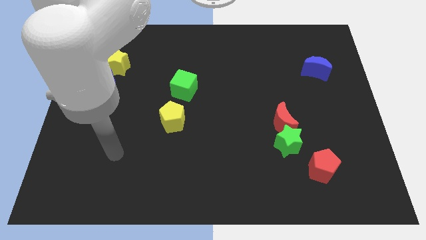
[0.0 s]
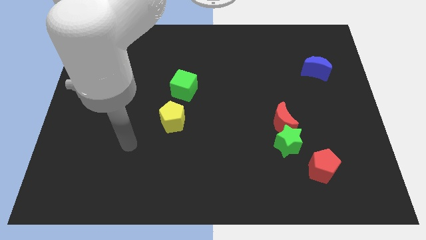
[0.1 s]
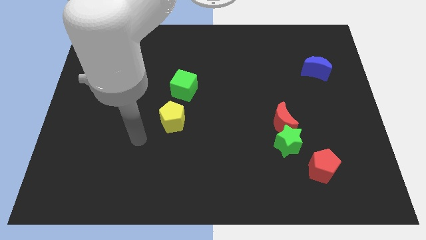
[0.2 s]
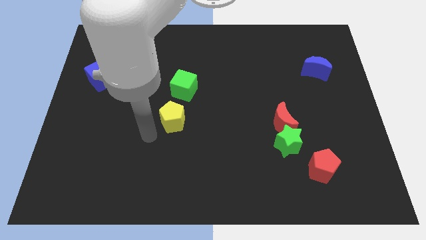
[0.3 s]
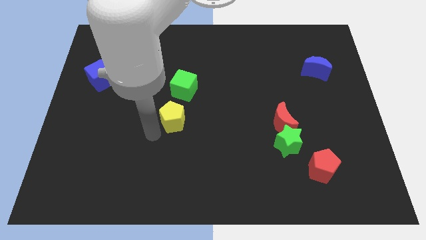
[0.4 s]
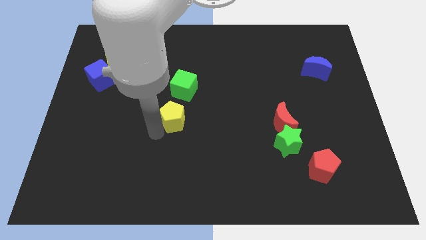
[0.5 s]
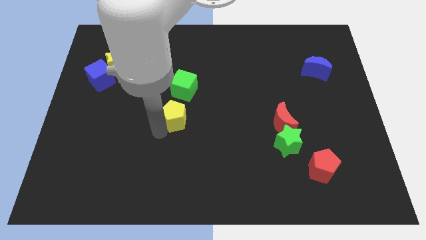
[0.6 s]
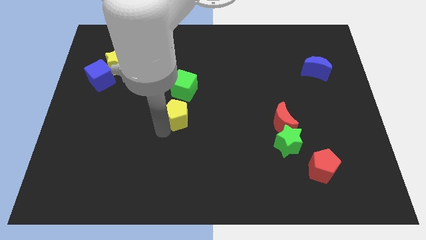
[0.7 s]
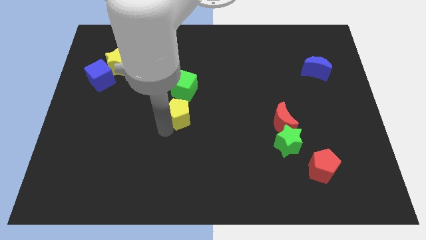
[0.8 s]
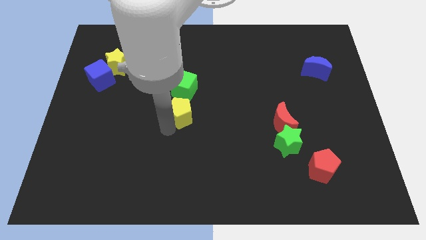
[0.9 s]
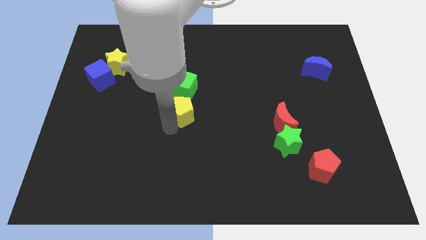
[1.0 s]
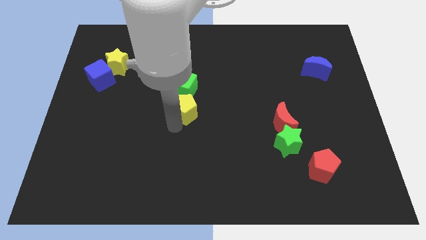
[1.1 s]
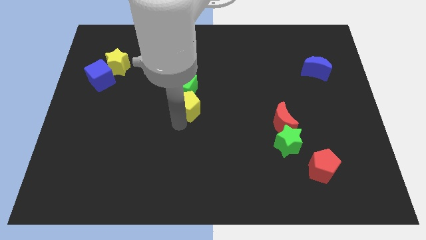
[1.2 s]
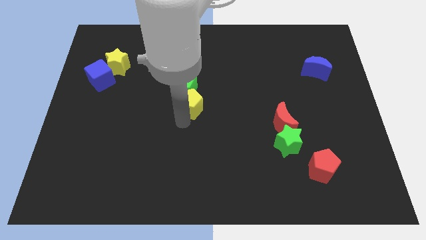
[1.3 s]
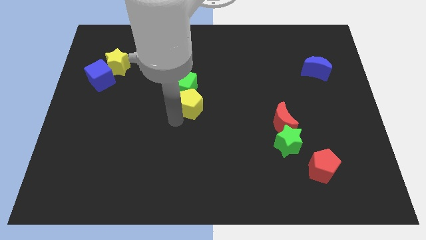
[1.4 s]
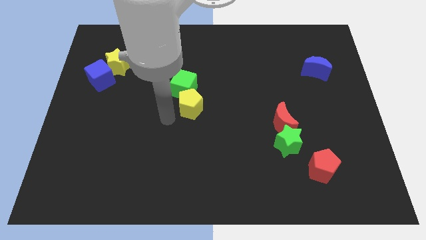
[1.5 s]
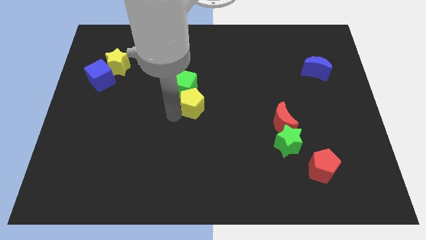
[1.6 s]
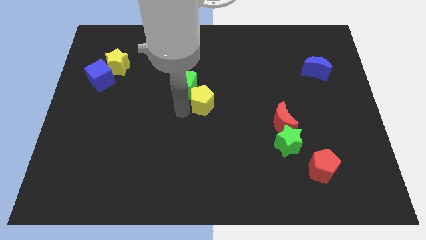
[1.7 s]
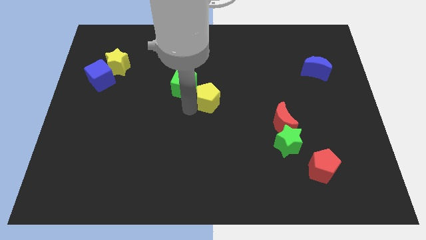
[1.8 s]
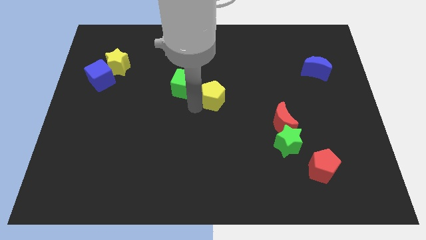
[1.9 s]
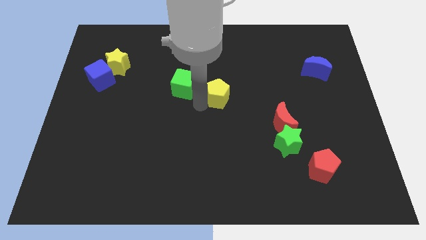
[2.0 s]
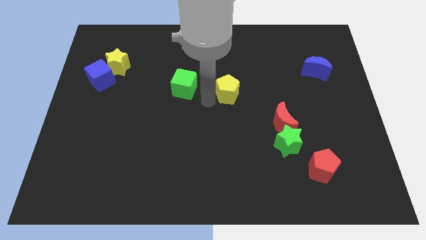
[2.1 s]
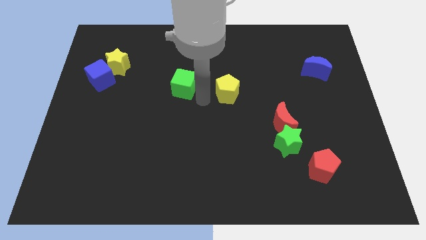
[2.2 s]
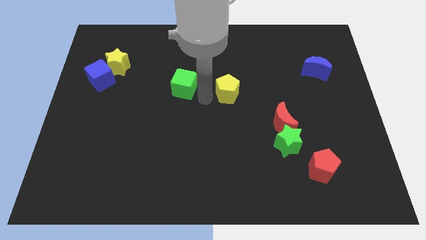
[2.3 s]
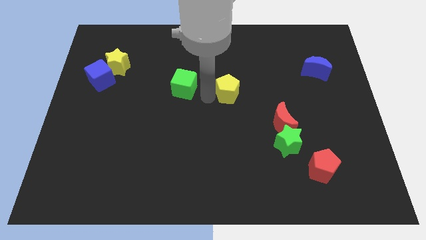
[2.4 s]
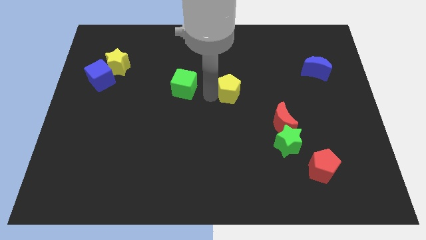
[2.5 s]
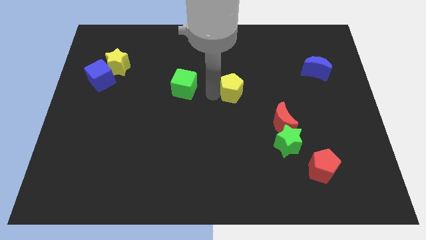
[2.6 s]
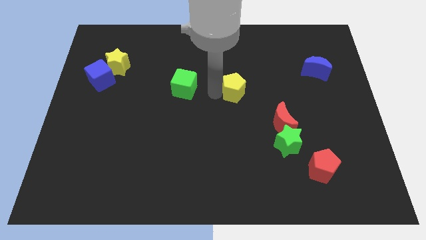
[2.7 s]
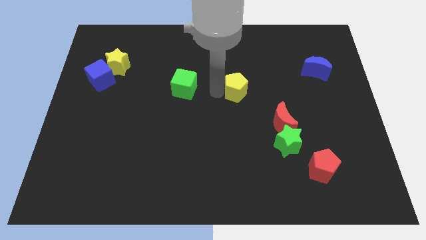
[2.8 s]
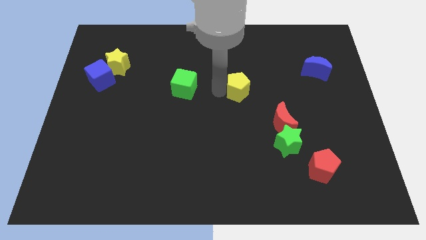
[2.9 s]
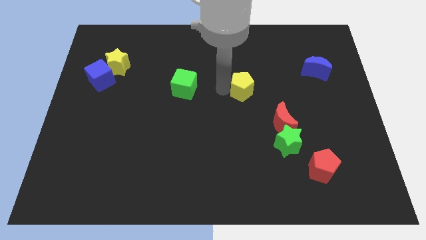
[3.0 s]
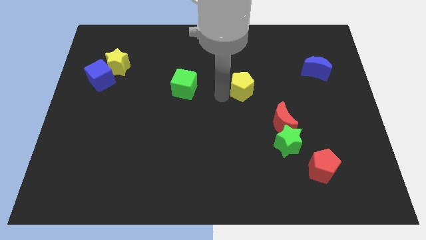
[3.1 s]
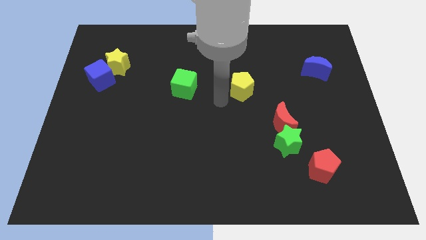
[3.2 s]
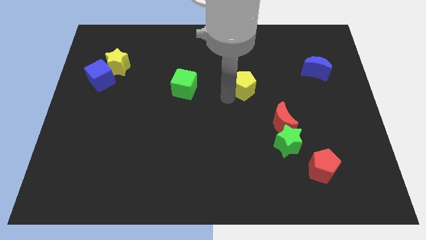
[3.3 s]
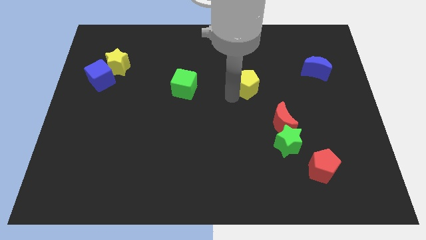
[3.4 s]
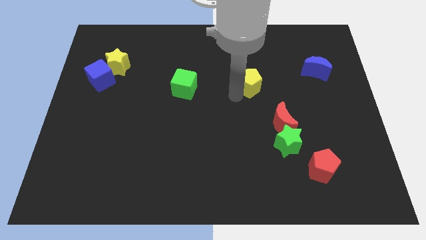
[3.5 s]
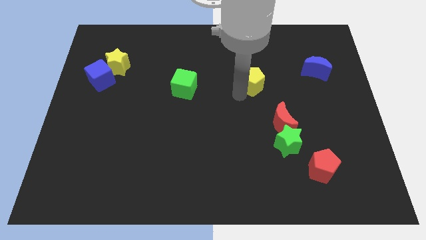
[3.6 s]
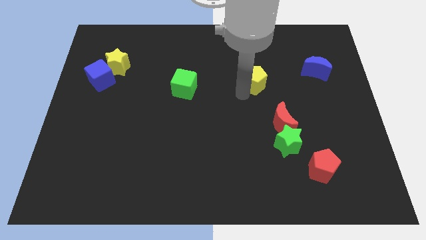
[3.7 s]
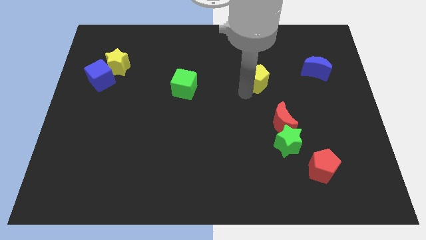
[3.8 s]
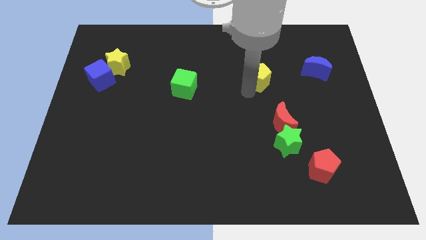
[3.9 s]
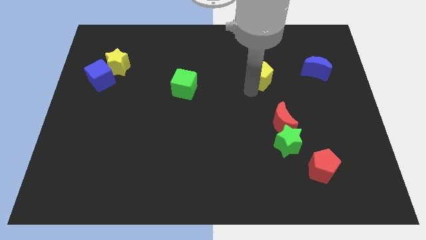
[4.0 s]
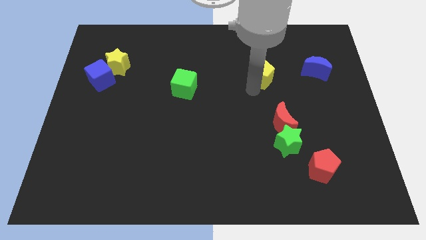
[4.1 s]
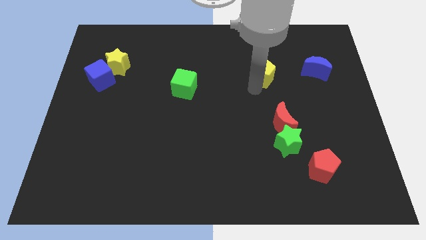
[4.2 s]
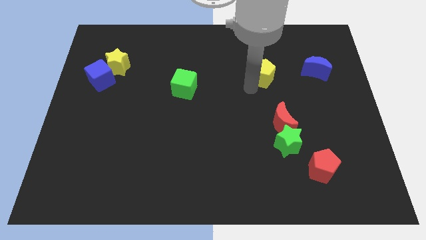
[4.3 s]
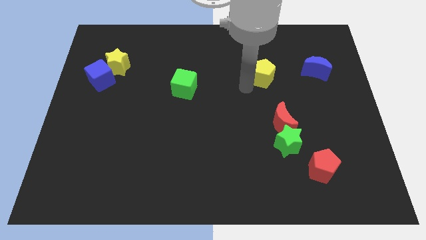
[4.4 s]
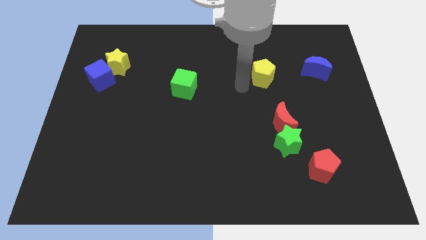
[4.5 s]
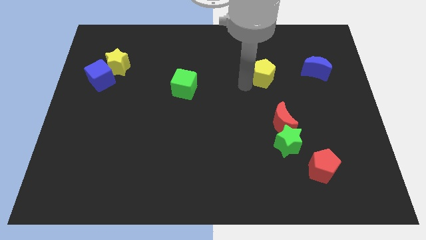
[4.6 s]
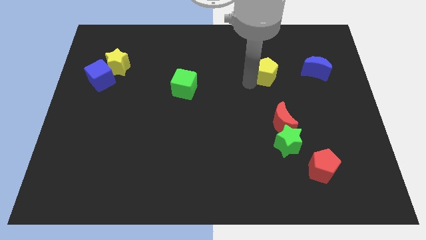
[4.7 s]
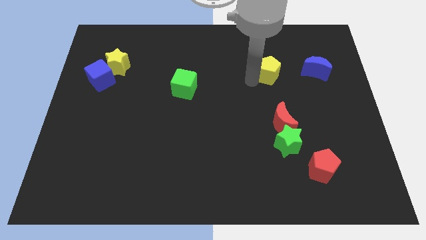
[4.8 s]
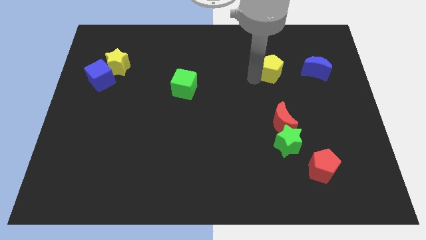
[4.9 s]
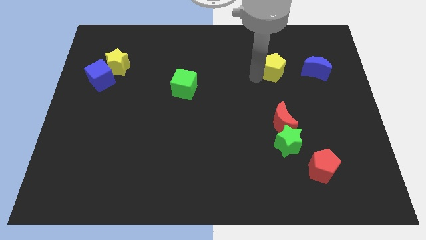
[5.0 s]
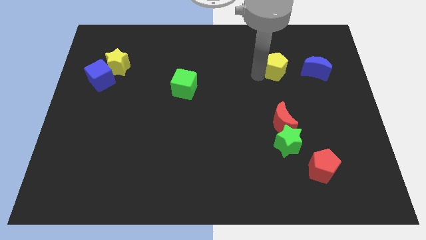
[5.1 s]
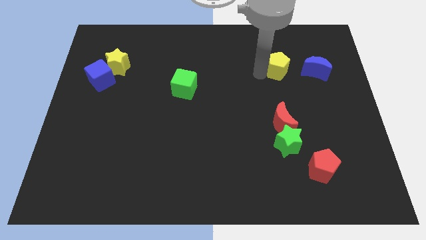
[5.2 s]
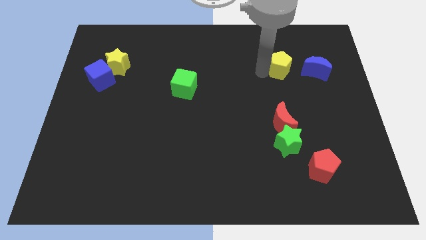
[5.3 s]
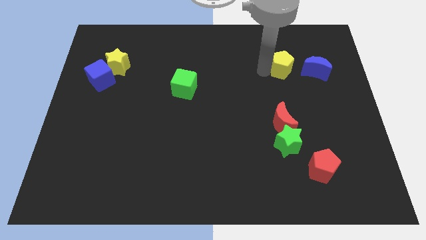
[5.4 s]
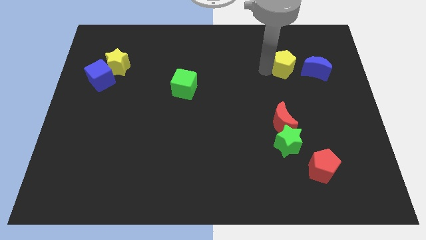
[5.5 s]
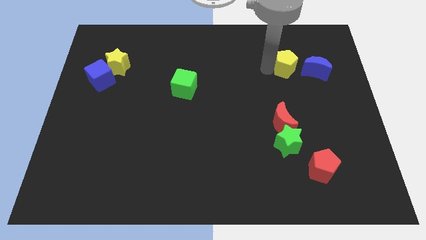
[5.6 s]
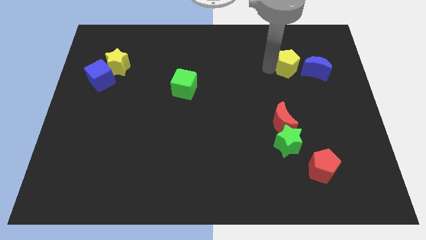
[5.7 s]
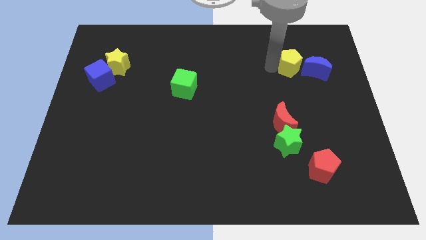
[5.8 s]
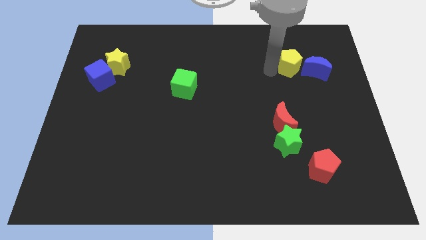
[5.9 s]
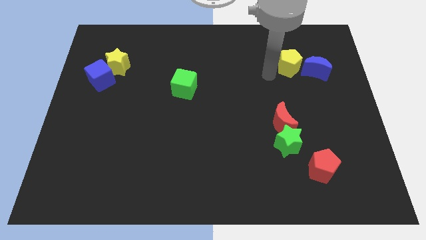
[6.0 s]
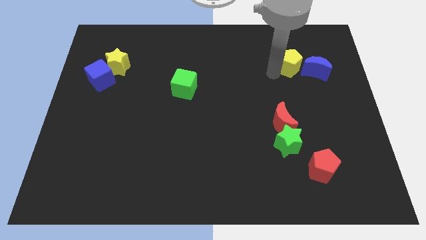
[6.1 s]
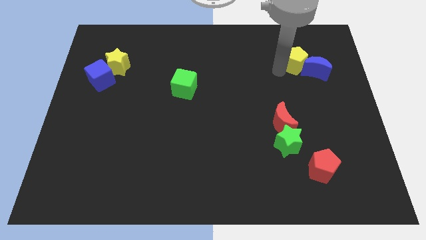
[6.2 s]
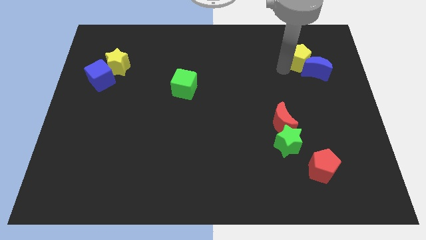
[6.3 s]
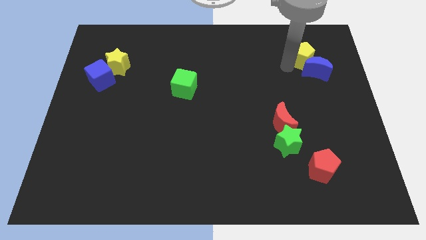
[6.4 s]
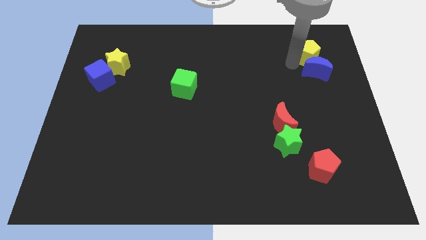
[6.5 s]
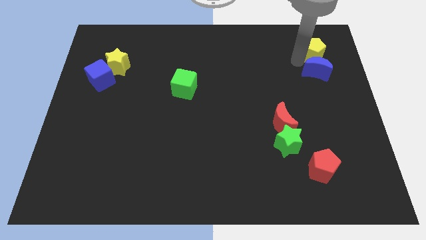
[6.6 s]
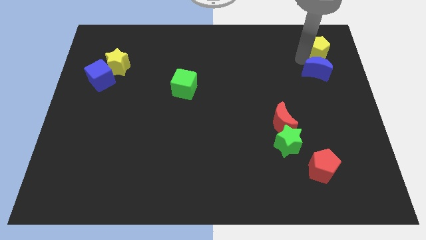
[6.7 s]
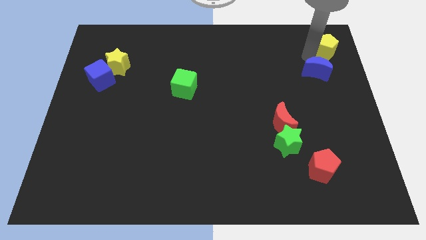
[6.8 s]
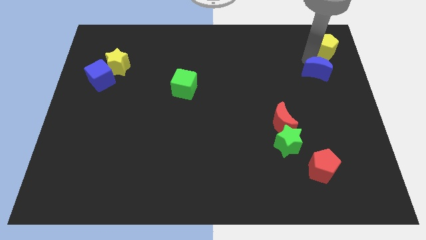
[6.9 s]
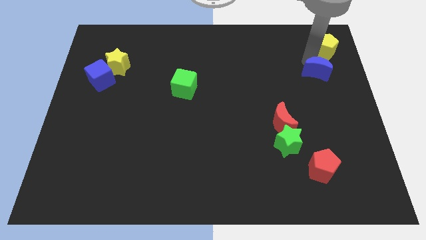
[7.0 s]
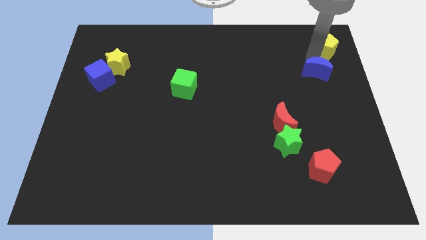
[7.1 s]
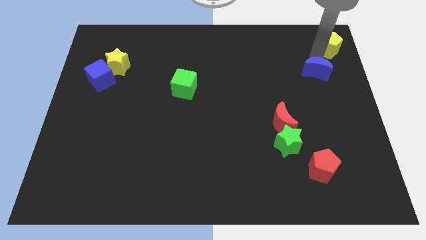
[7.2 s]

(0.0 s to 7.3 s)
put the yellow pentagon to the upper right corner
